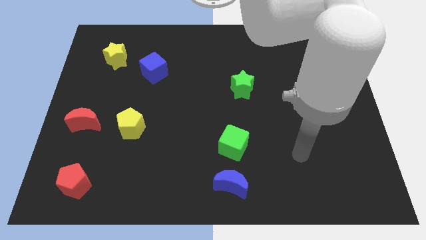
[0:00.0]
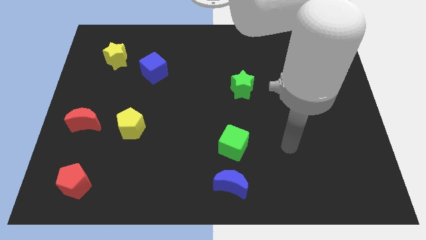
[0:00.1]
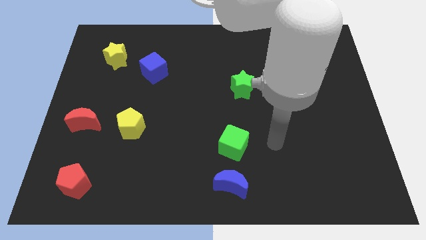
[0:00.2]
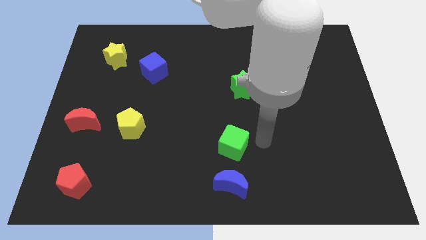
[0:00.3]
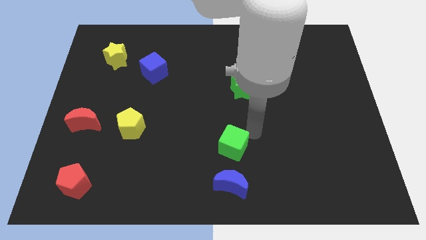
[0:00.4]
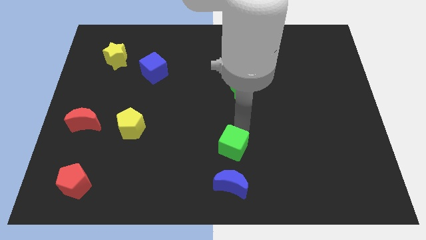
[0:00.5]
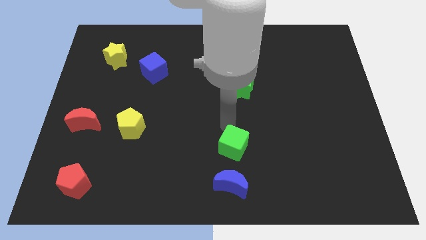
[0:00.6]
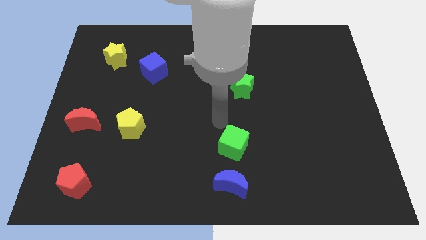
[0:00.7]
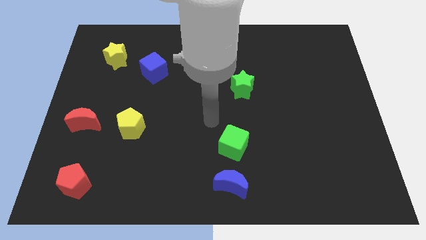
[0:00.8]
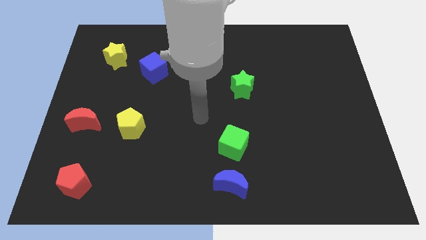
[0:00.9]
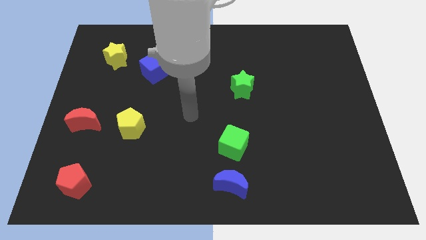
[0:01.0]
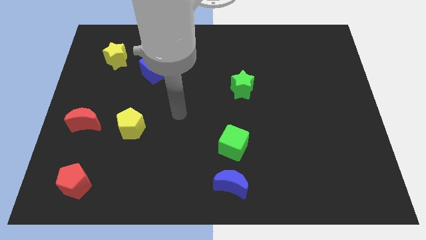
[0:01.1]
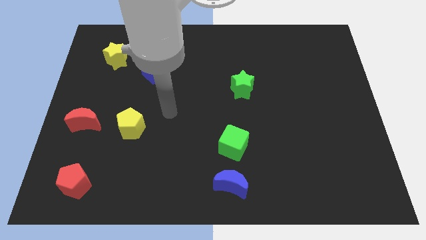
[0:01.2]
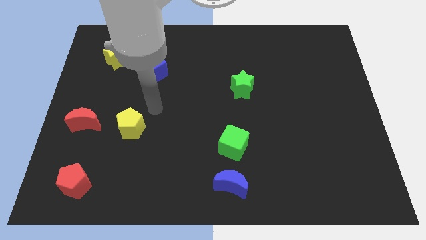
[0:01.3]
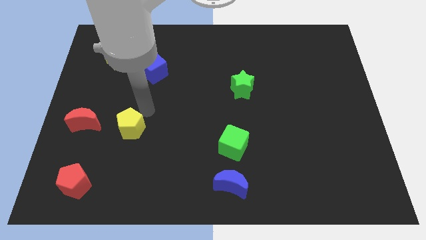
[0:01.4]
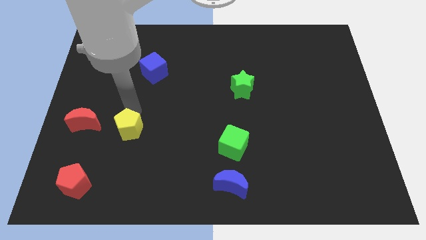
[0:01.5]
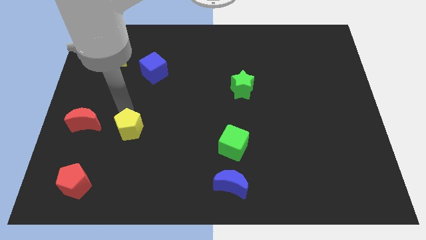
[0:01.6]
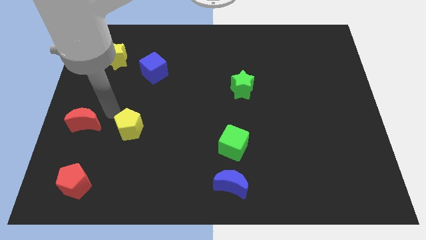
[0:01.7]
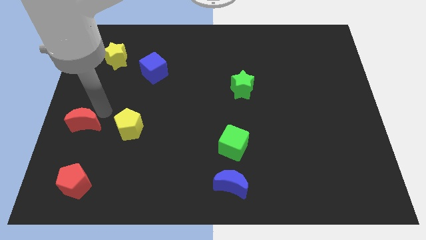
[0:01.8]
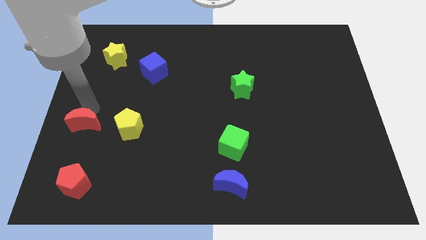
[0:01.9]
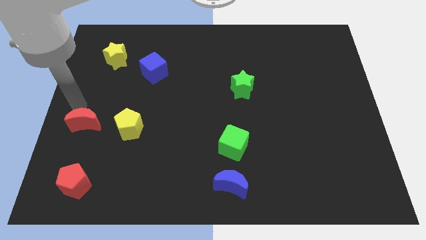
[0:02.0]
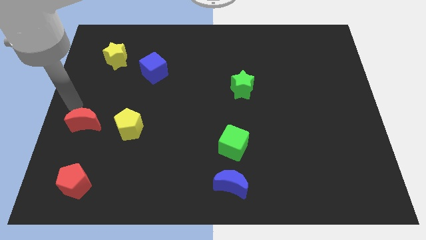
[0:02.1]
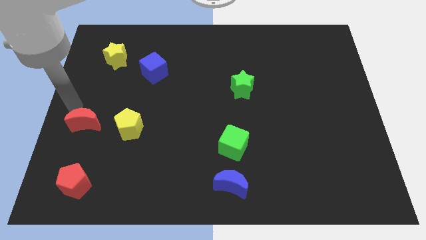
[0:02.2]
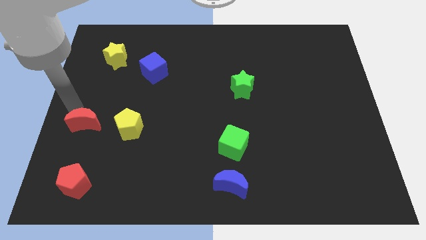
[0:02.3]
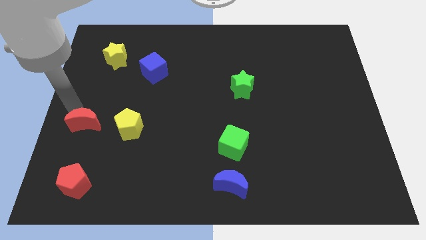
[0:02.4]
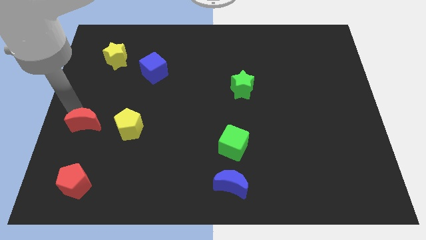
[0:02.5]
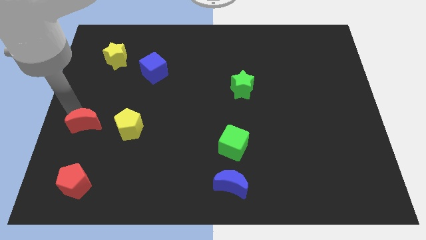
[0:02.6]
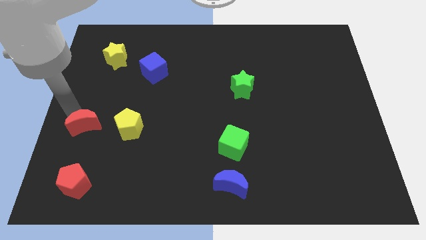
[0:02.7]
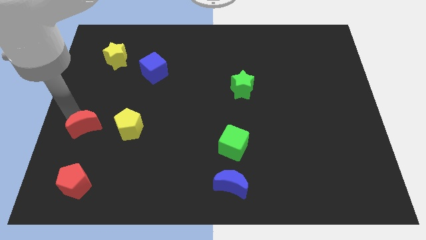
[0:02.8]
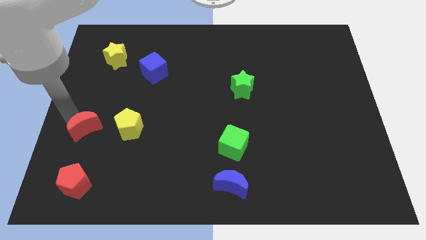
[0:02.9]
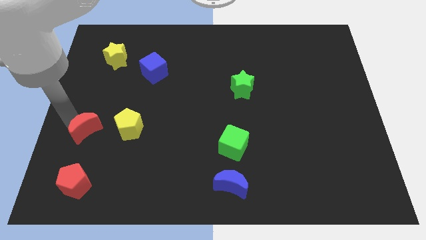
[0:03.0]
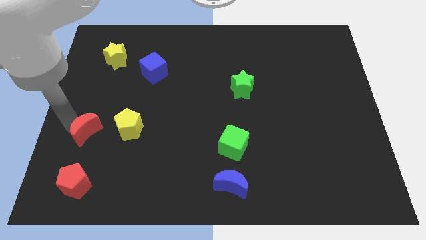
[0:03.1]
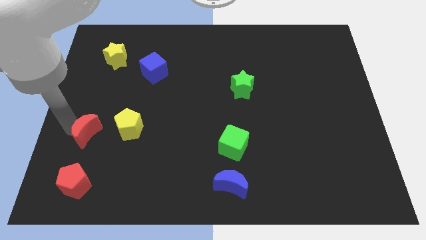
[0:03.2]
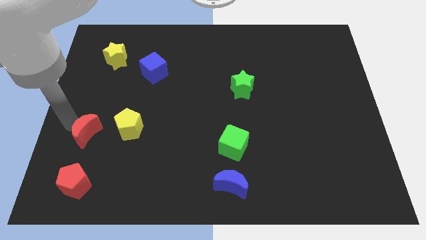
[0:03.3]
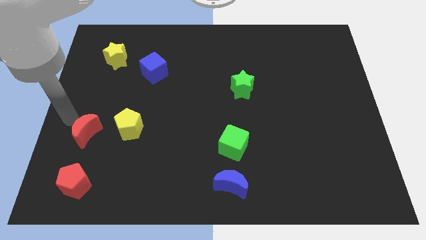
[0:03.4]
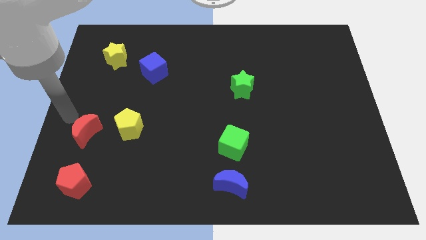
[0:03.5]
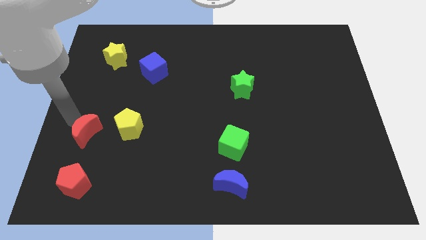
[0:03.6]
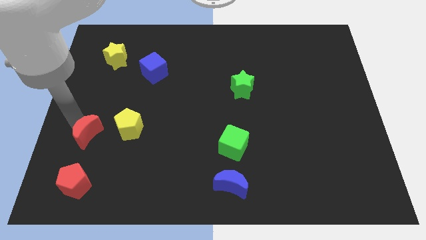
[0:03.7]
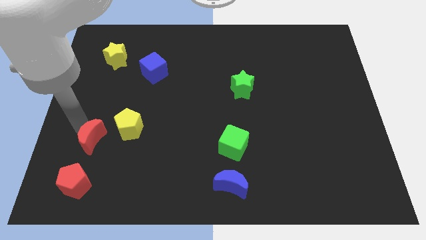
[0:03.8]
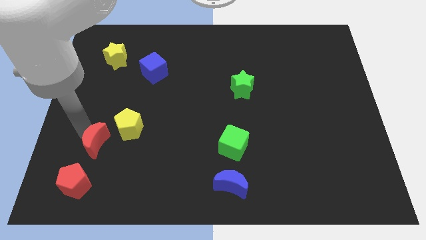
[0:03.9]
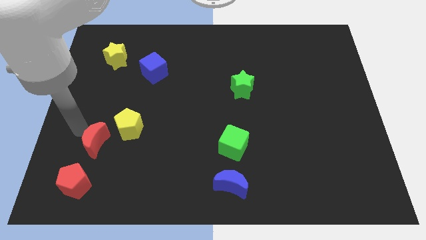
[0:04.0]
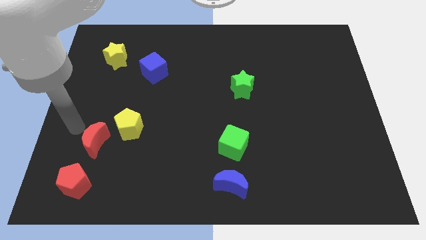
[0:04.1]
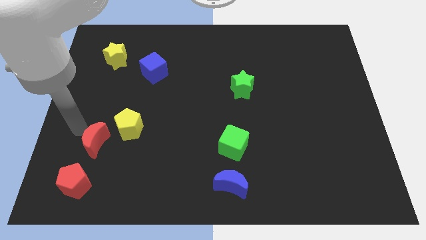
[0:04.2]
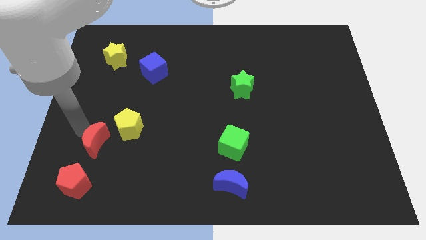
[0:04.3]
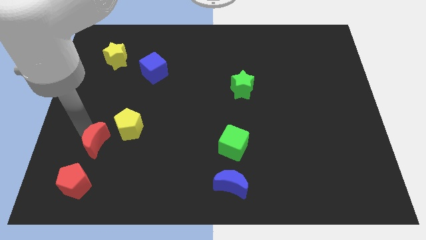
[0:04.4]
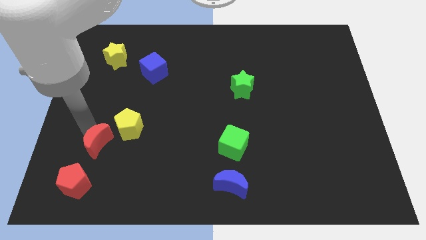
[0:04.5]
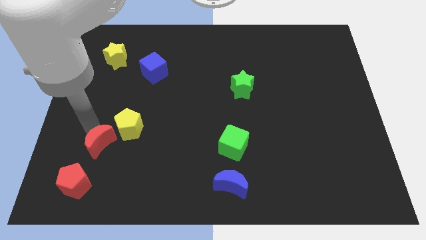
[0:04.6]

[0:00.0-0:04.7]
move the red moon a little diagonally down and right

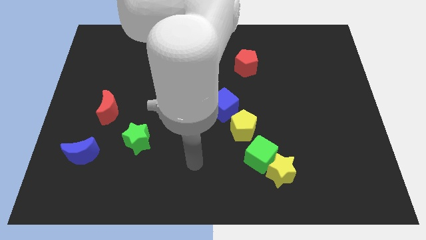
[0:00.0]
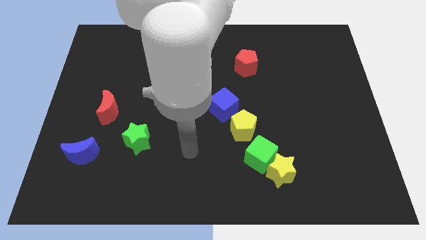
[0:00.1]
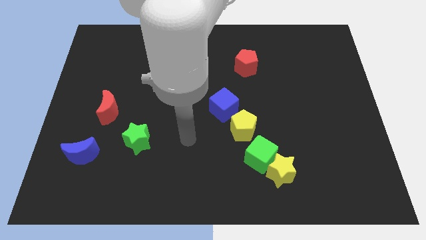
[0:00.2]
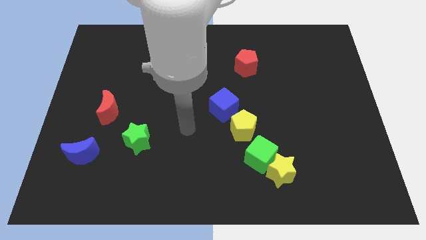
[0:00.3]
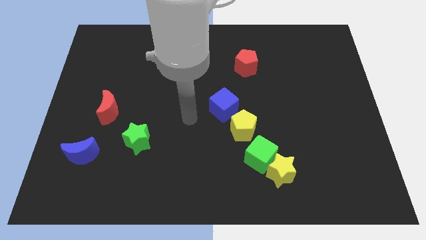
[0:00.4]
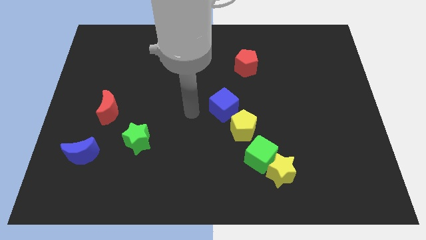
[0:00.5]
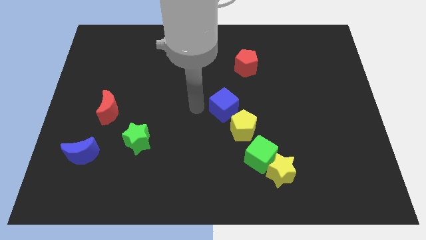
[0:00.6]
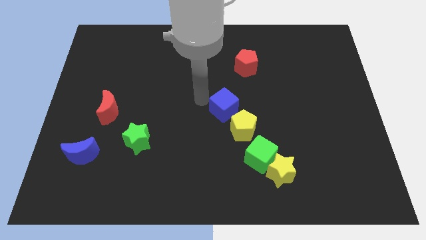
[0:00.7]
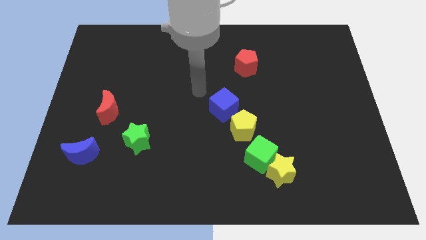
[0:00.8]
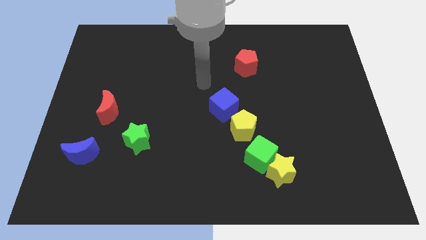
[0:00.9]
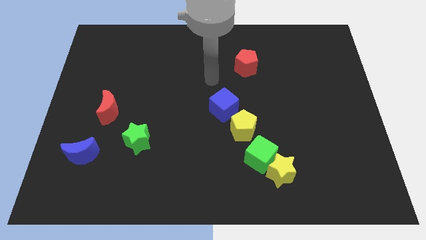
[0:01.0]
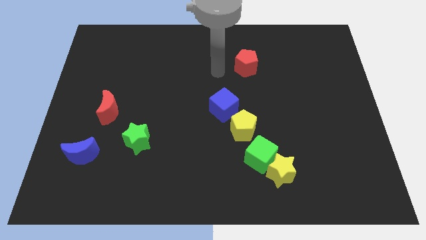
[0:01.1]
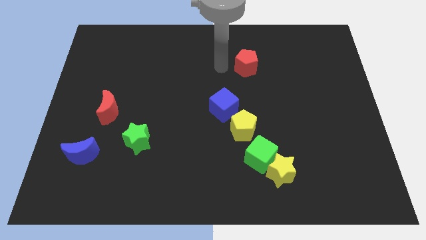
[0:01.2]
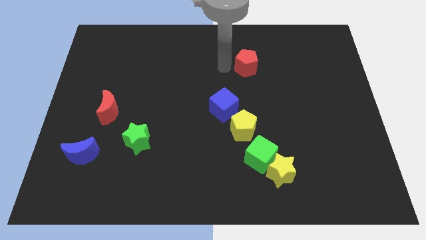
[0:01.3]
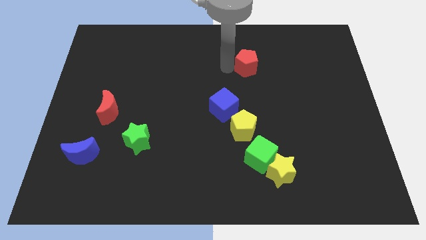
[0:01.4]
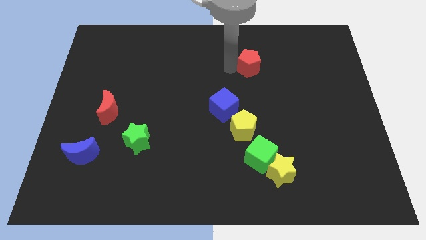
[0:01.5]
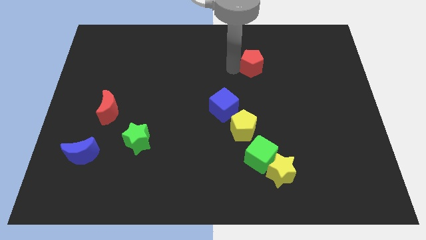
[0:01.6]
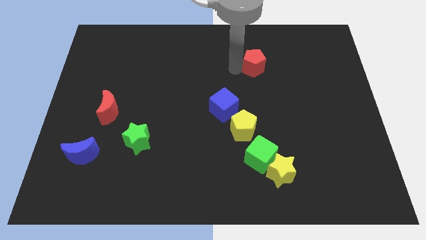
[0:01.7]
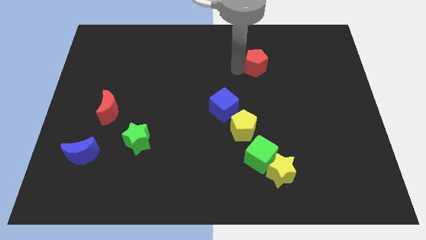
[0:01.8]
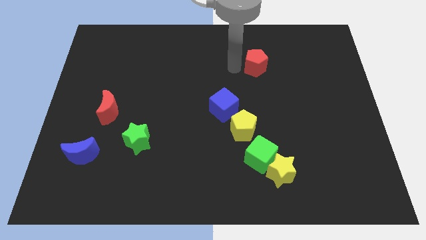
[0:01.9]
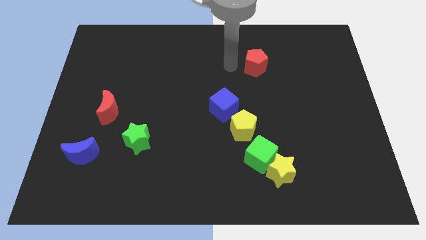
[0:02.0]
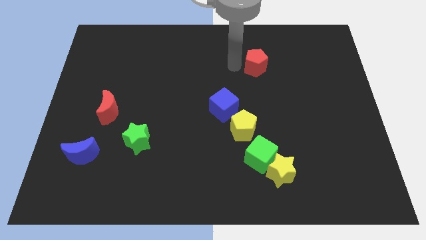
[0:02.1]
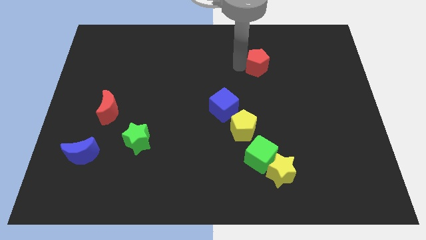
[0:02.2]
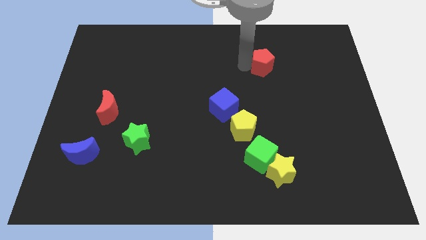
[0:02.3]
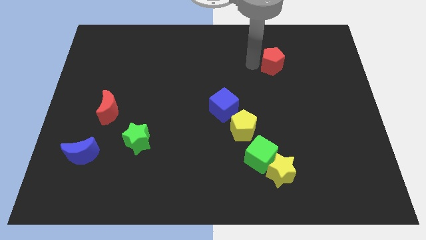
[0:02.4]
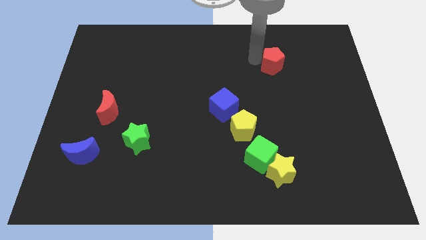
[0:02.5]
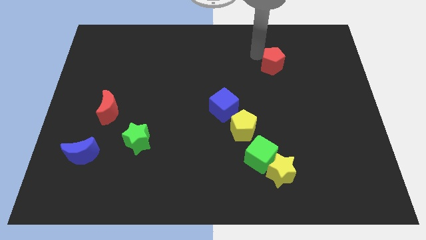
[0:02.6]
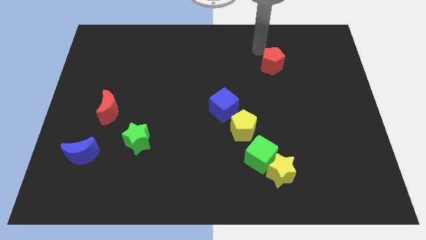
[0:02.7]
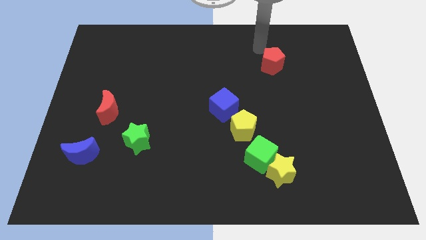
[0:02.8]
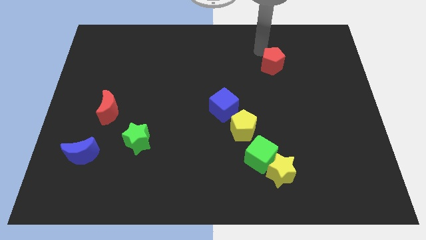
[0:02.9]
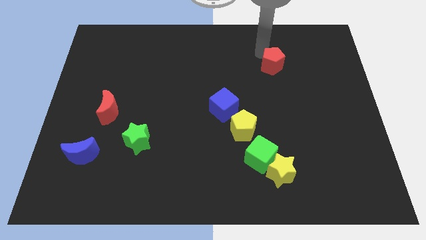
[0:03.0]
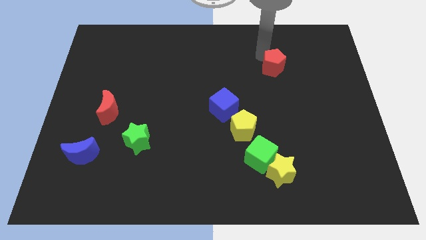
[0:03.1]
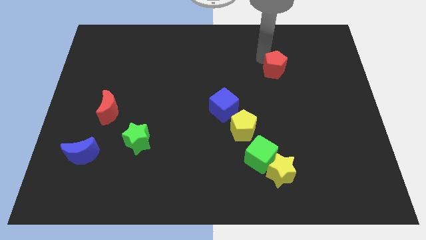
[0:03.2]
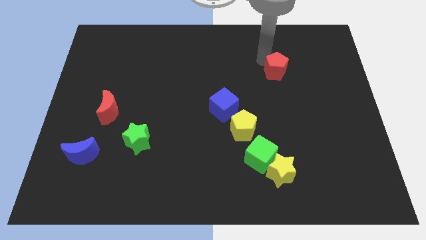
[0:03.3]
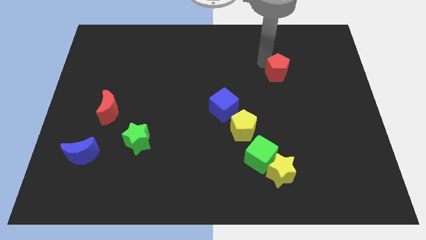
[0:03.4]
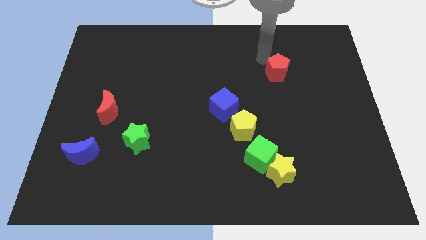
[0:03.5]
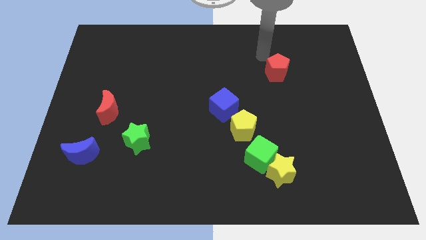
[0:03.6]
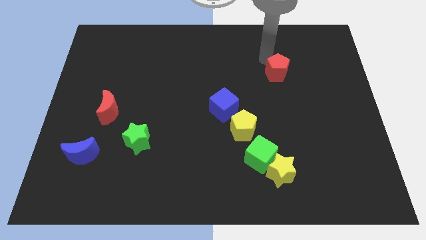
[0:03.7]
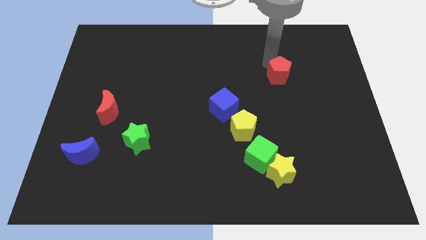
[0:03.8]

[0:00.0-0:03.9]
slightly push the red pentagon downwards and to the right
